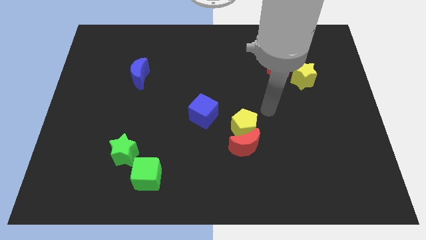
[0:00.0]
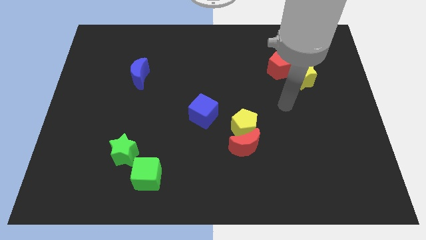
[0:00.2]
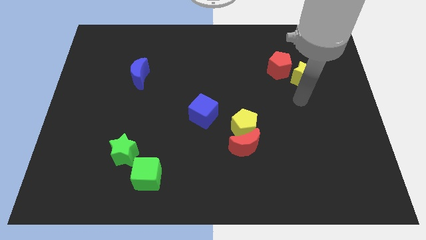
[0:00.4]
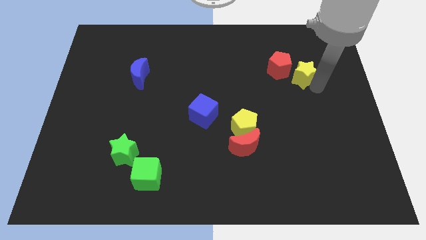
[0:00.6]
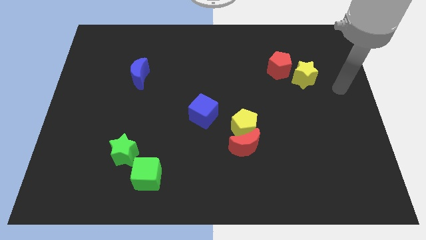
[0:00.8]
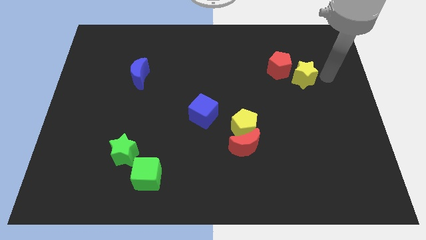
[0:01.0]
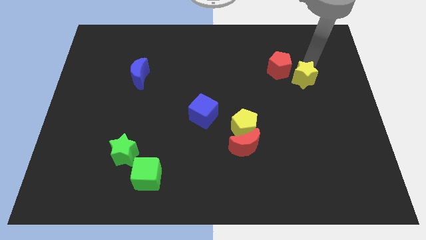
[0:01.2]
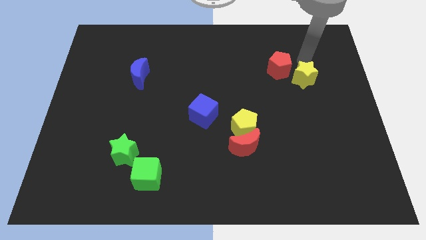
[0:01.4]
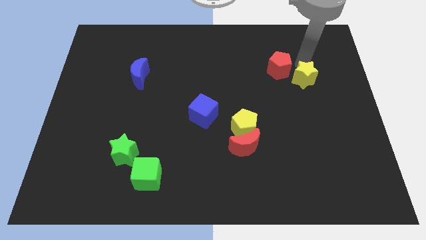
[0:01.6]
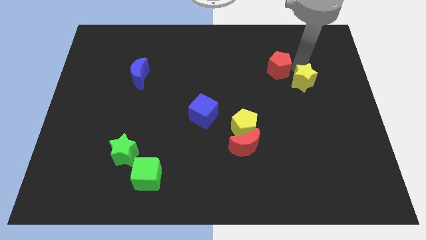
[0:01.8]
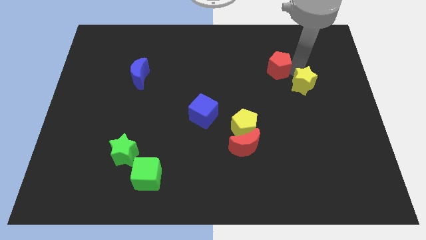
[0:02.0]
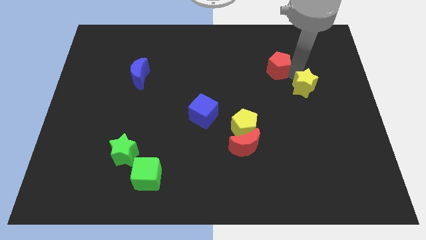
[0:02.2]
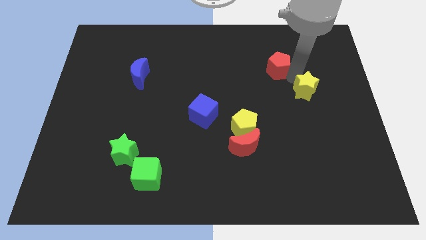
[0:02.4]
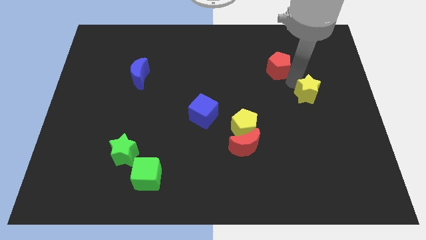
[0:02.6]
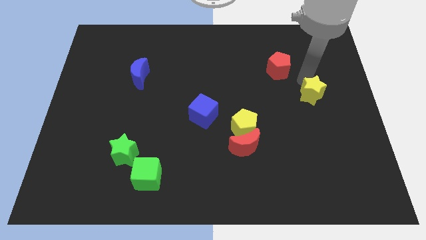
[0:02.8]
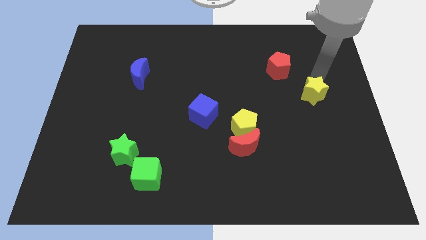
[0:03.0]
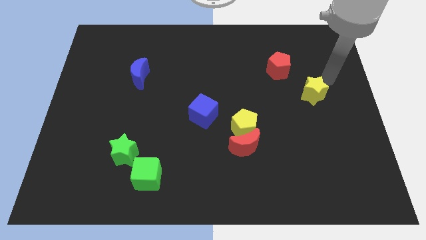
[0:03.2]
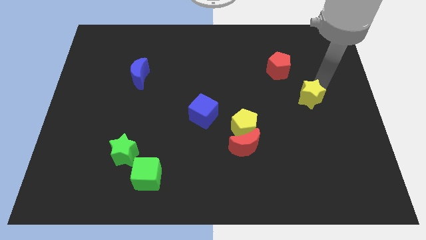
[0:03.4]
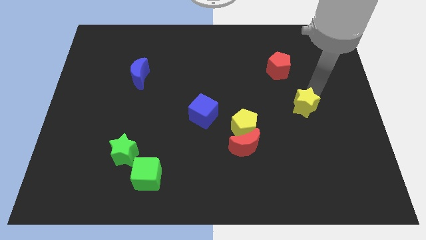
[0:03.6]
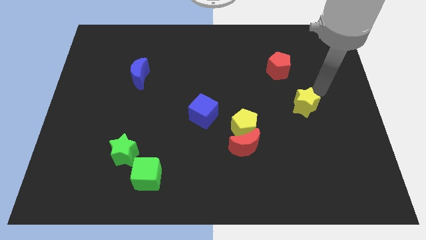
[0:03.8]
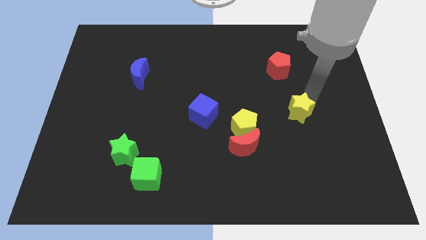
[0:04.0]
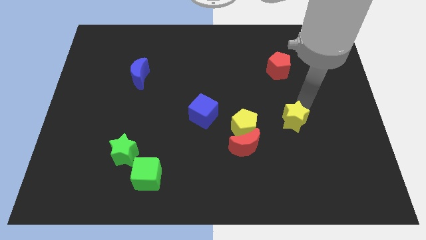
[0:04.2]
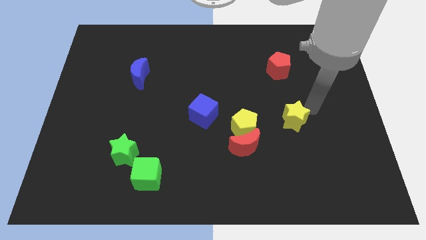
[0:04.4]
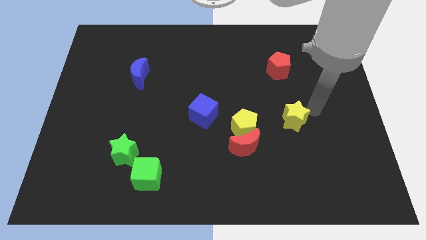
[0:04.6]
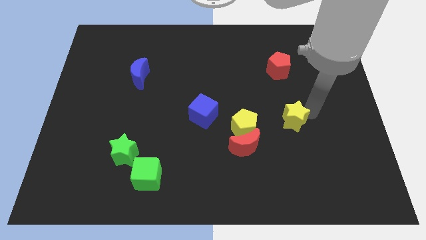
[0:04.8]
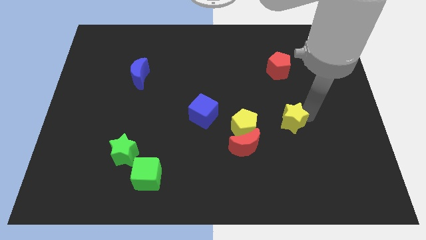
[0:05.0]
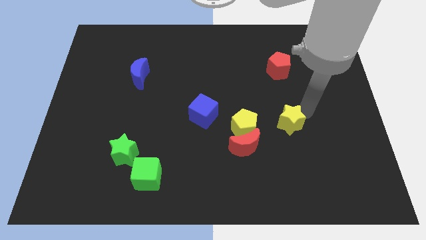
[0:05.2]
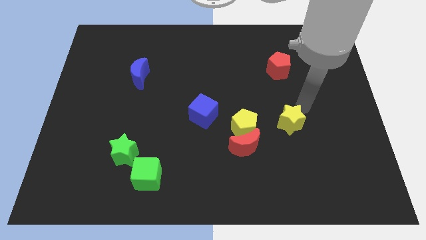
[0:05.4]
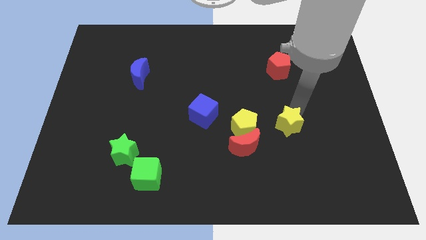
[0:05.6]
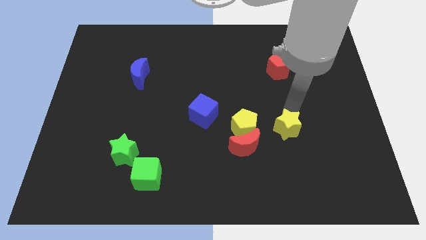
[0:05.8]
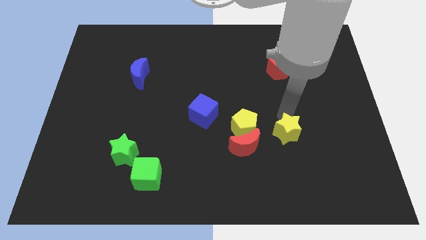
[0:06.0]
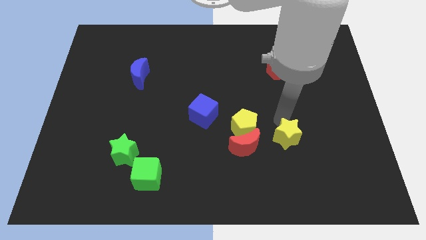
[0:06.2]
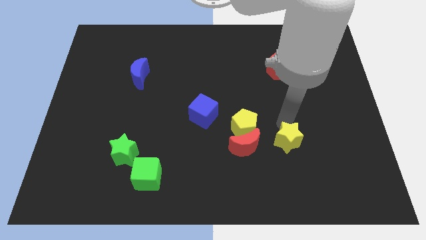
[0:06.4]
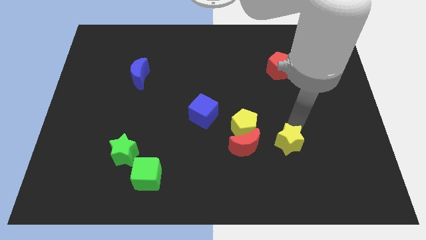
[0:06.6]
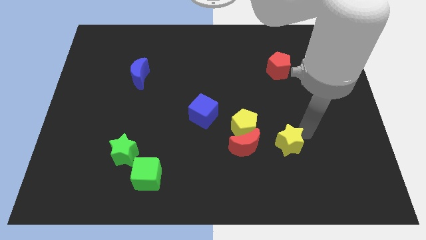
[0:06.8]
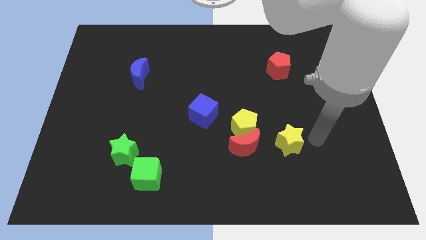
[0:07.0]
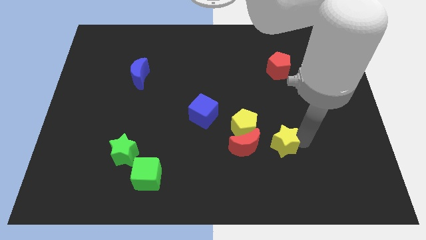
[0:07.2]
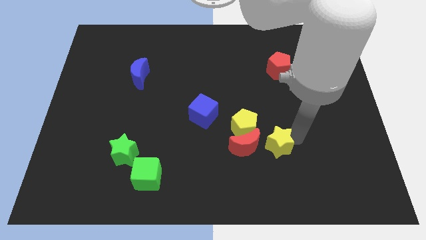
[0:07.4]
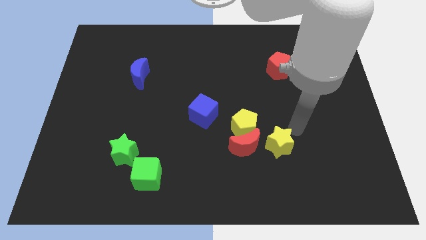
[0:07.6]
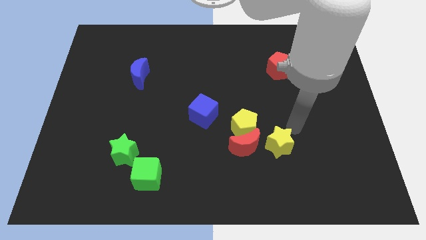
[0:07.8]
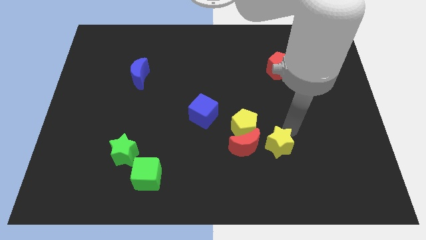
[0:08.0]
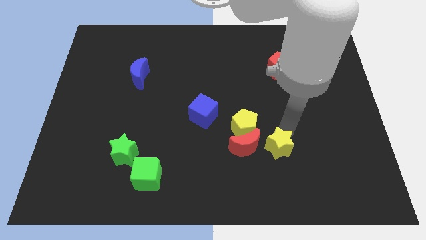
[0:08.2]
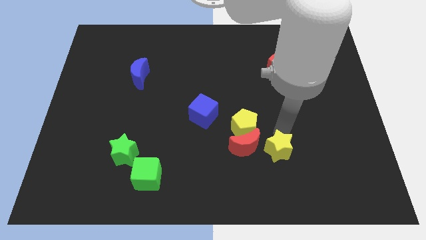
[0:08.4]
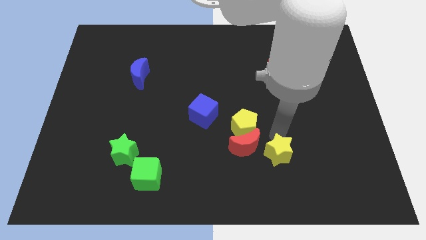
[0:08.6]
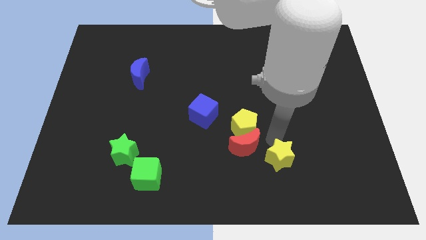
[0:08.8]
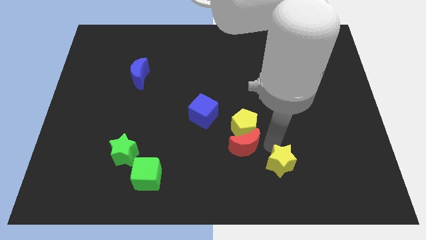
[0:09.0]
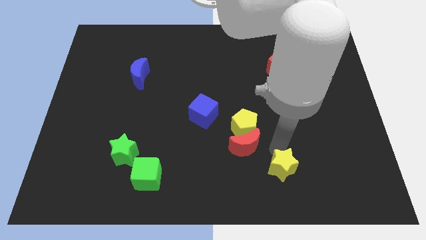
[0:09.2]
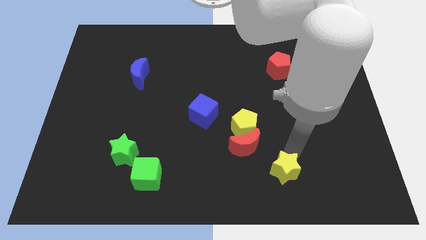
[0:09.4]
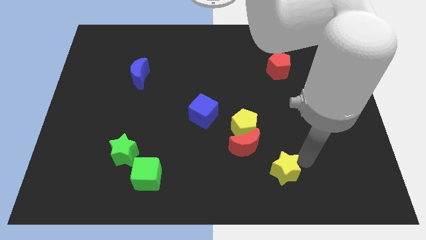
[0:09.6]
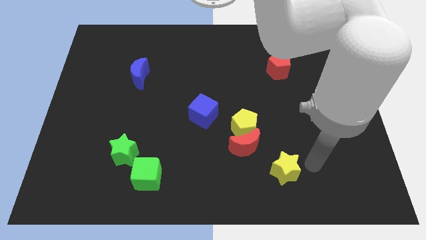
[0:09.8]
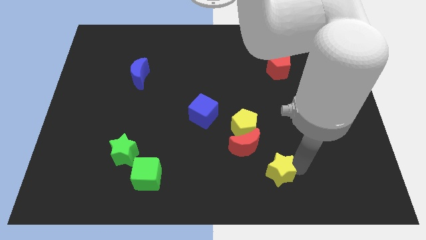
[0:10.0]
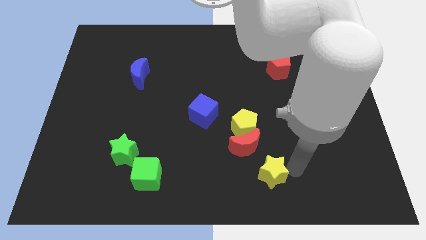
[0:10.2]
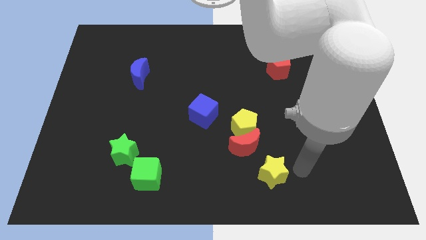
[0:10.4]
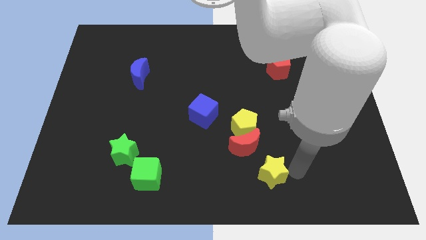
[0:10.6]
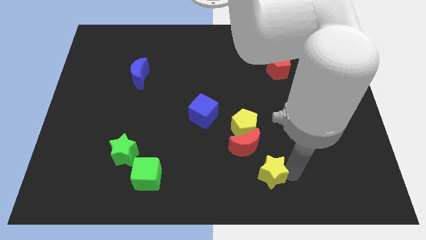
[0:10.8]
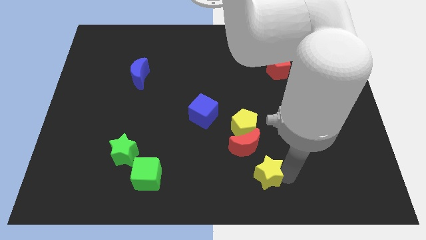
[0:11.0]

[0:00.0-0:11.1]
move the yellow star to the bottom

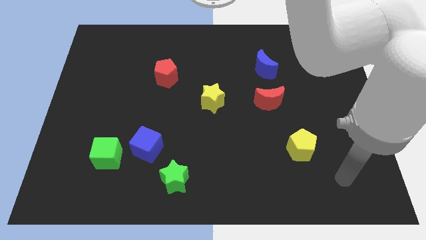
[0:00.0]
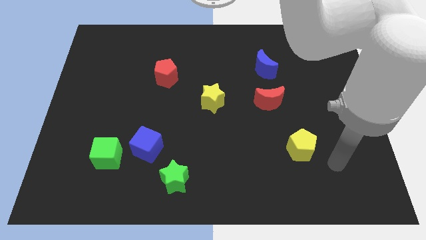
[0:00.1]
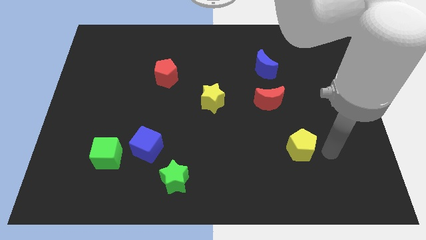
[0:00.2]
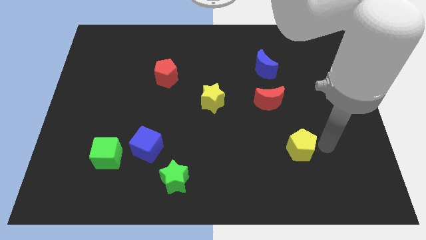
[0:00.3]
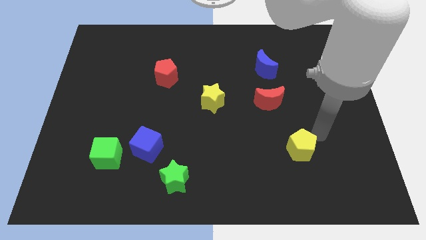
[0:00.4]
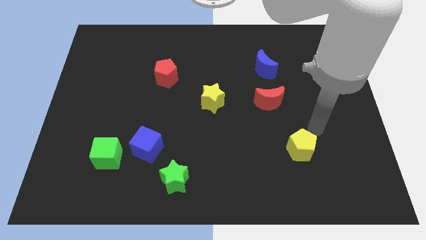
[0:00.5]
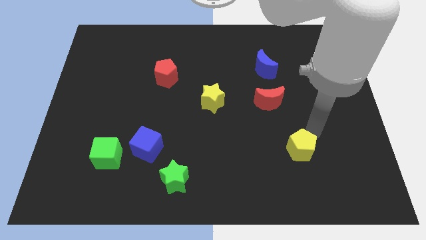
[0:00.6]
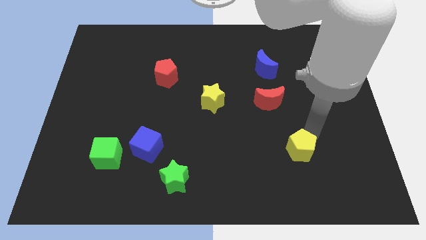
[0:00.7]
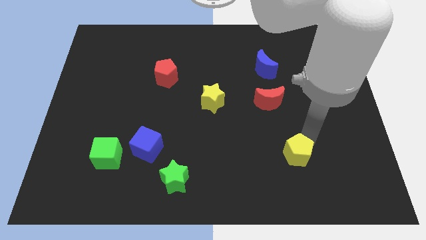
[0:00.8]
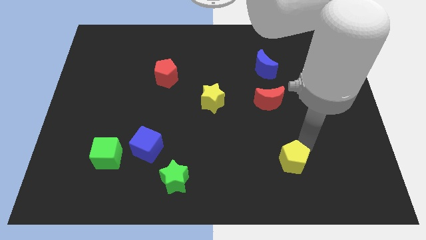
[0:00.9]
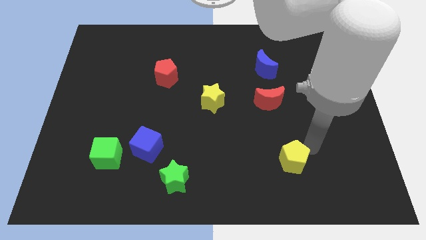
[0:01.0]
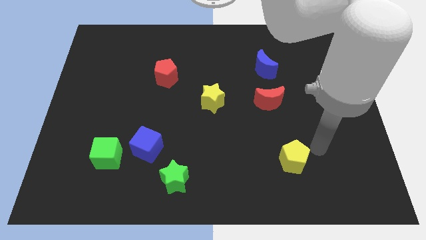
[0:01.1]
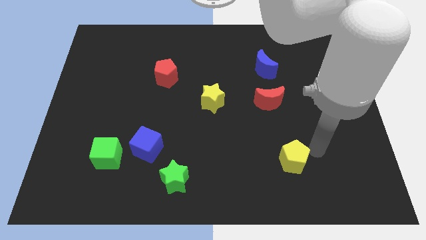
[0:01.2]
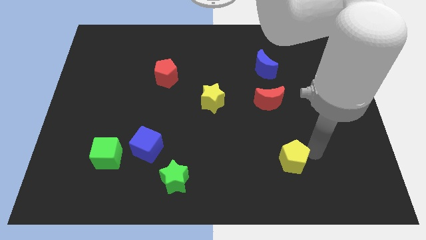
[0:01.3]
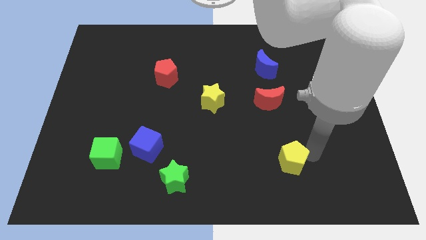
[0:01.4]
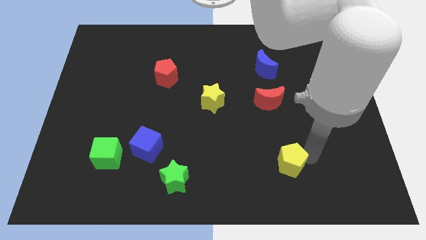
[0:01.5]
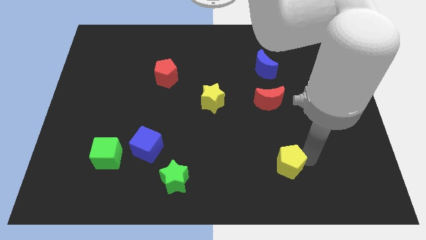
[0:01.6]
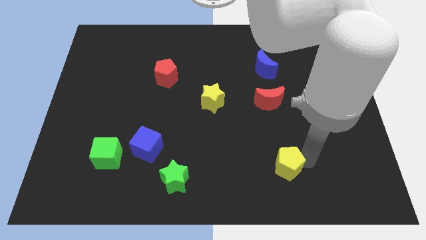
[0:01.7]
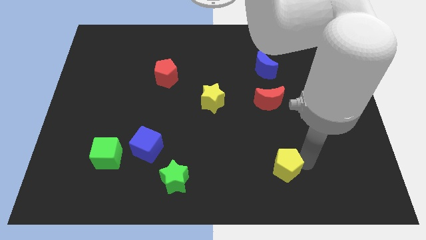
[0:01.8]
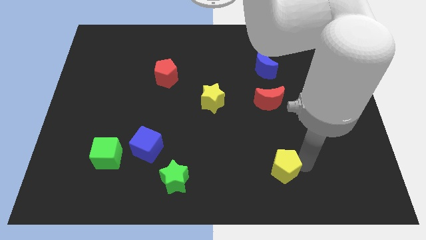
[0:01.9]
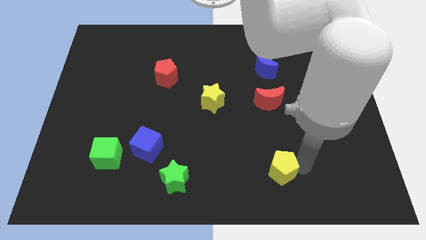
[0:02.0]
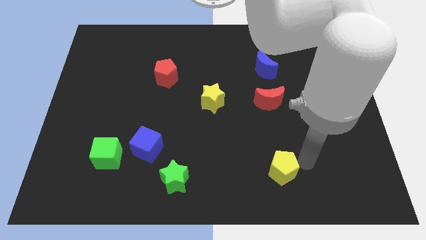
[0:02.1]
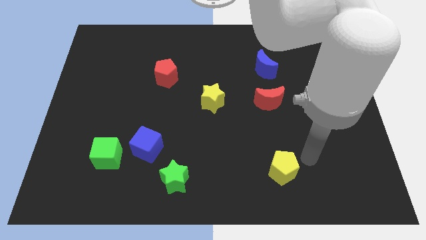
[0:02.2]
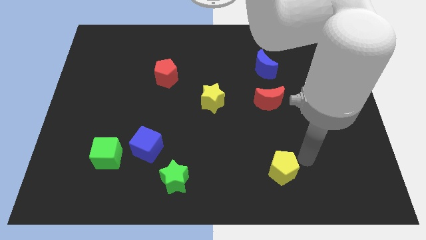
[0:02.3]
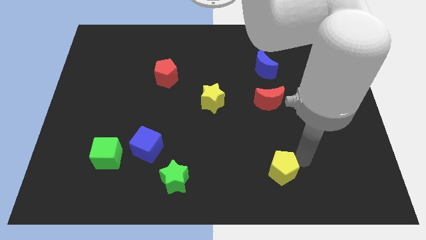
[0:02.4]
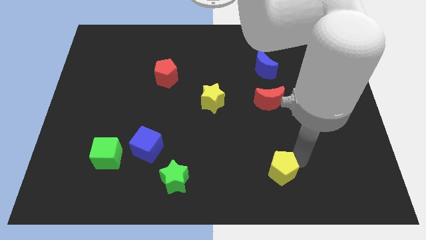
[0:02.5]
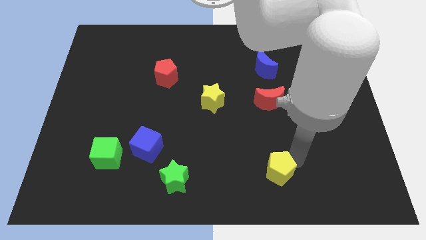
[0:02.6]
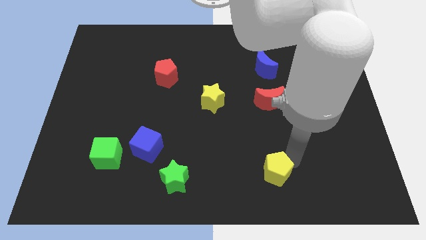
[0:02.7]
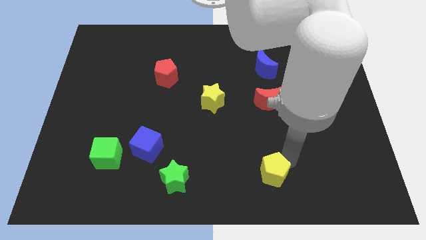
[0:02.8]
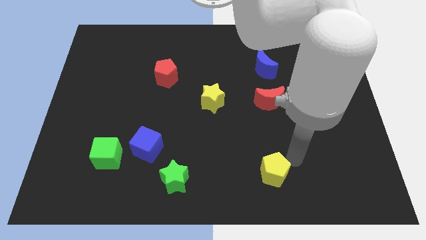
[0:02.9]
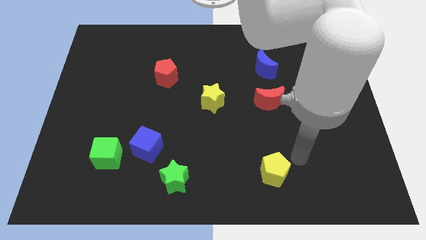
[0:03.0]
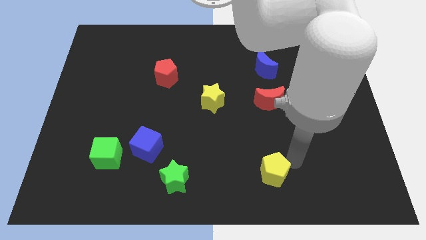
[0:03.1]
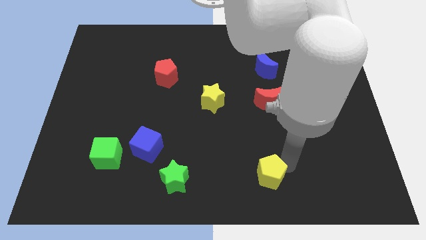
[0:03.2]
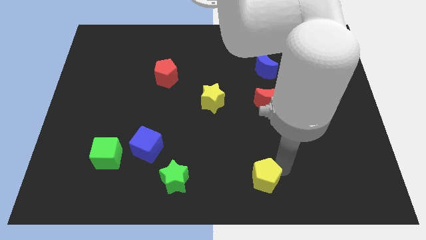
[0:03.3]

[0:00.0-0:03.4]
slide the yellow pentagon to the bottom side
